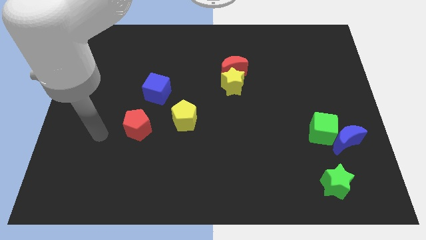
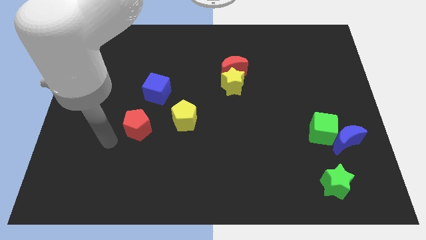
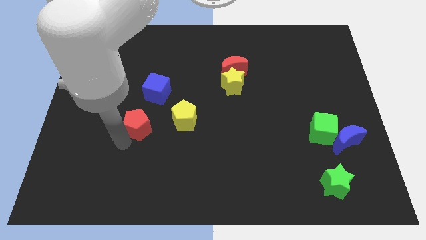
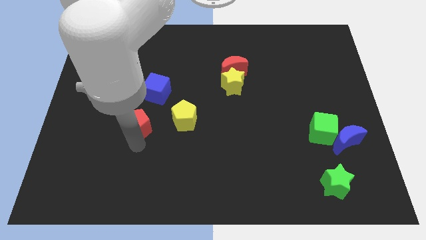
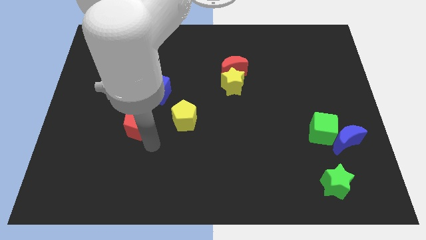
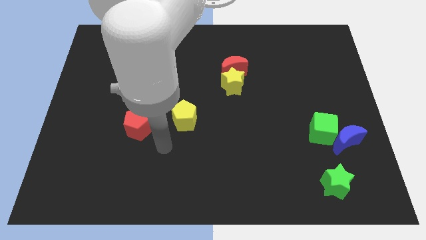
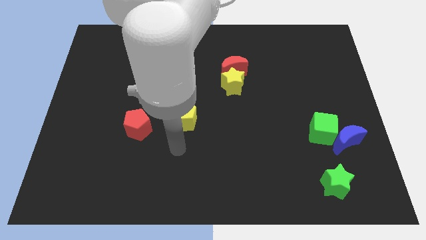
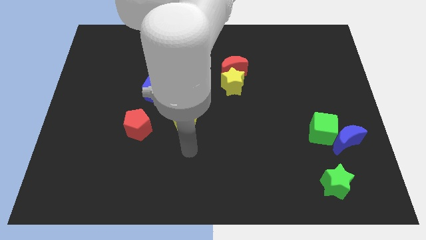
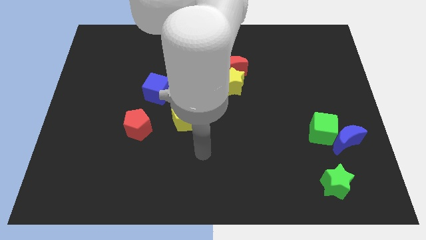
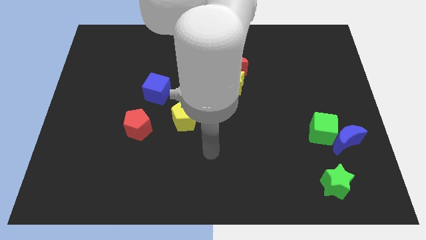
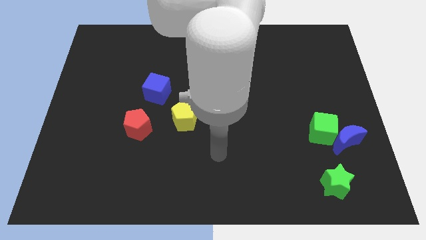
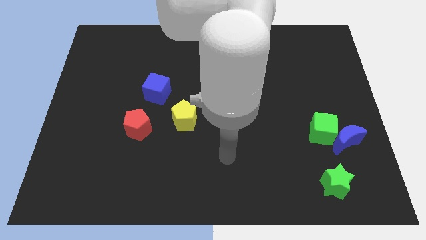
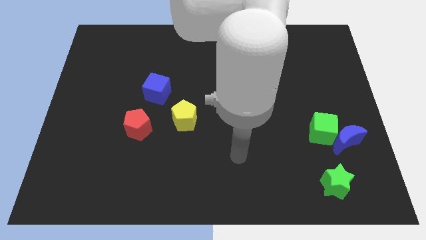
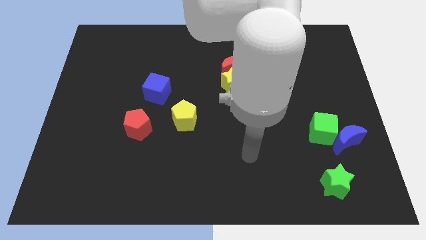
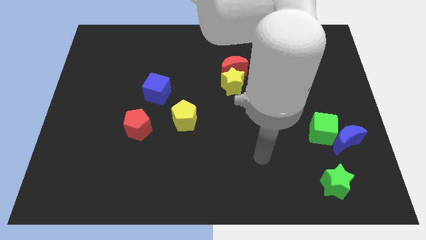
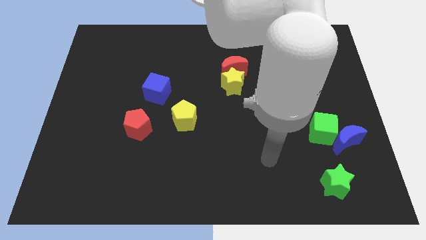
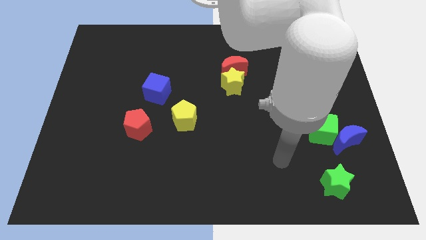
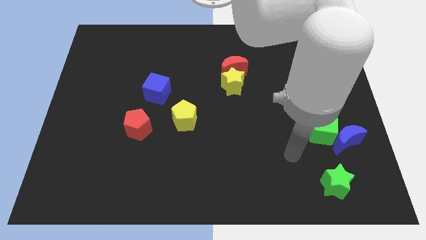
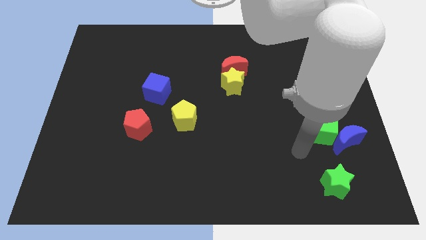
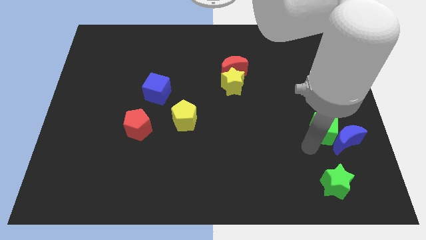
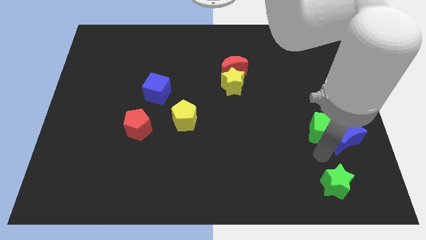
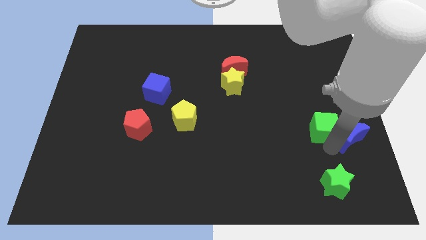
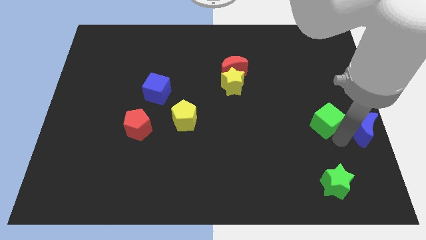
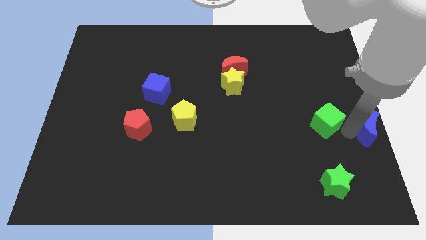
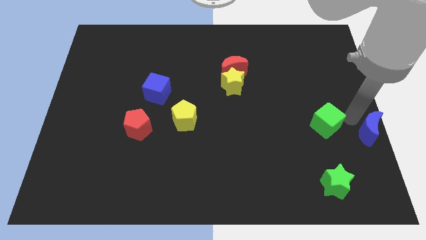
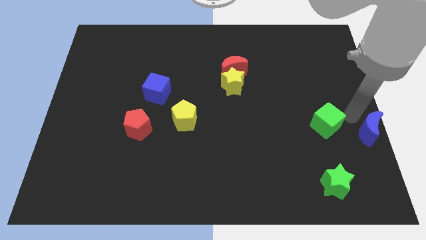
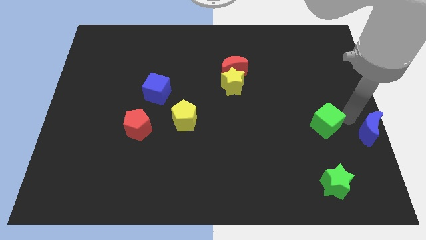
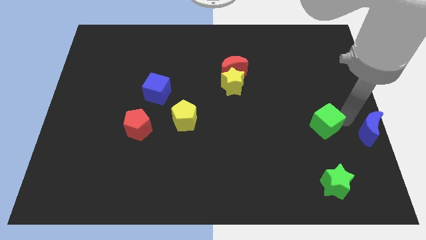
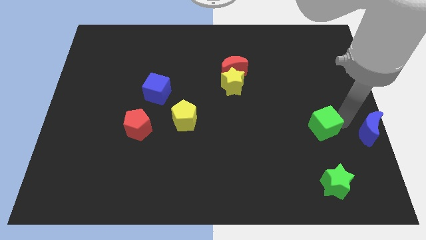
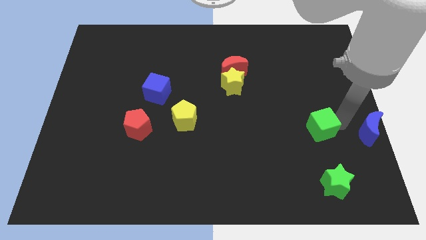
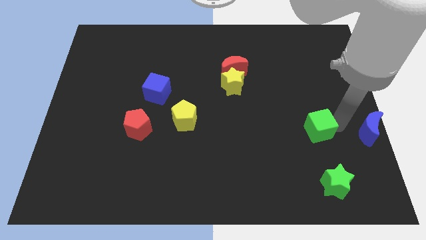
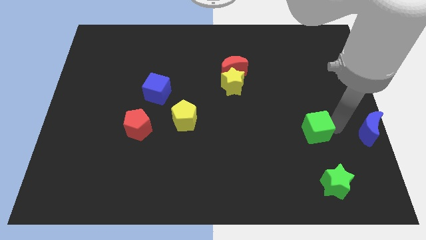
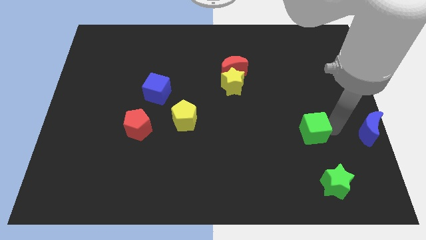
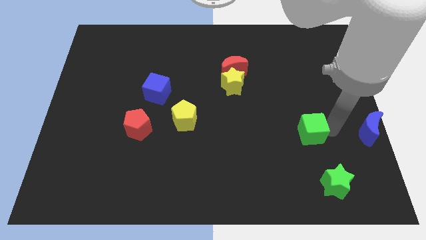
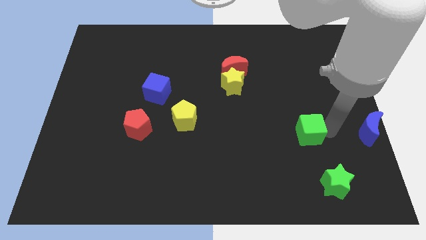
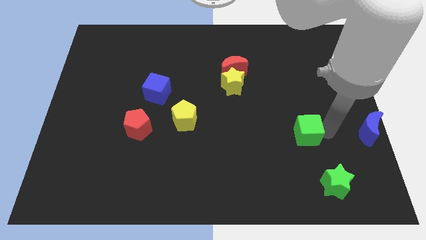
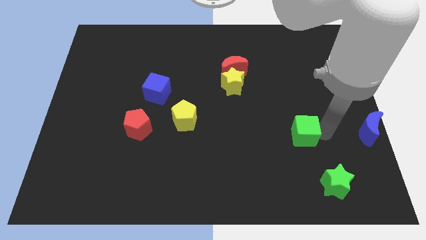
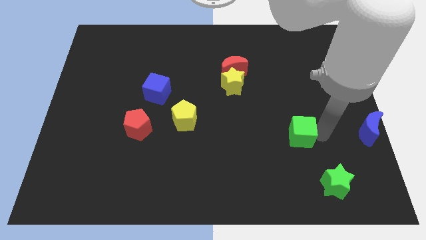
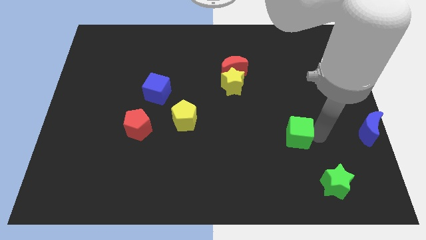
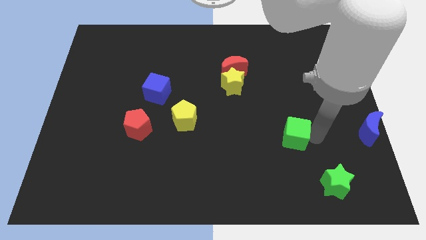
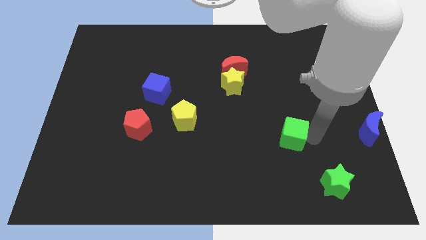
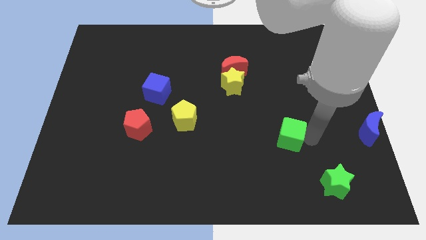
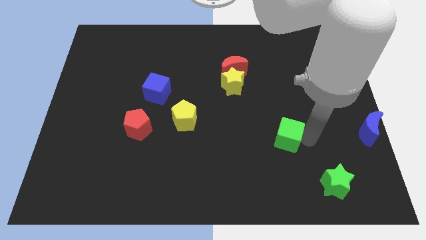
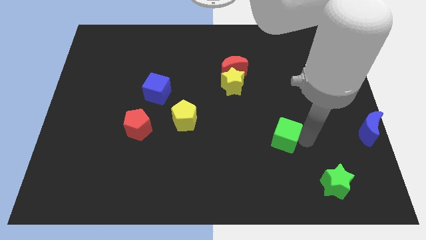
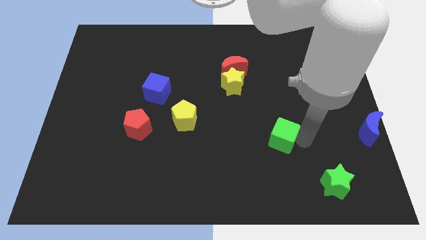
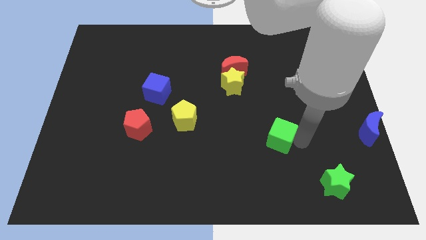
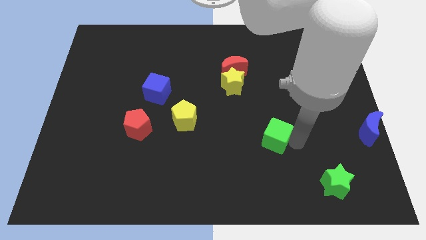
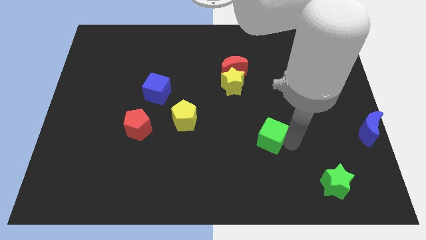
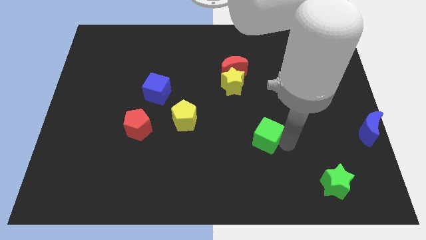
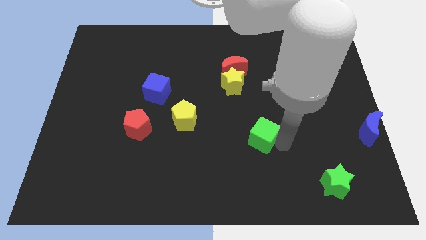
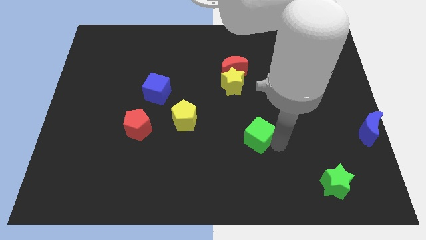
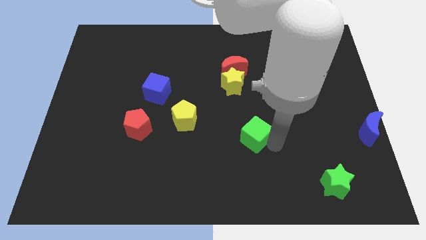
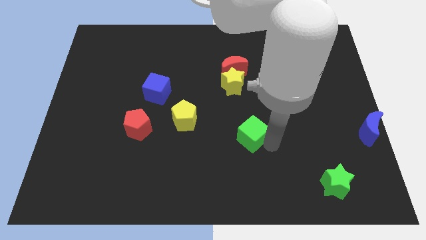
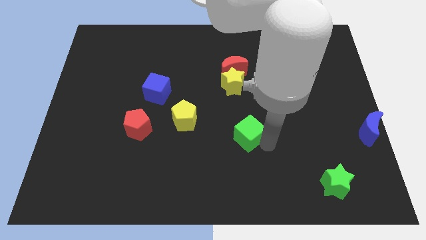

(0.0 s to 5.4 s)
put the green cube to the bottom of the yellow star

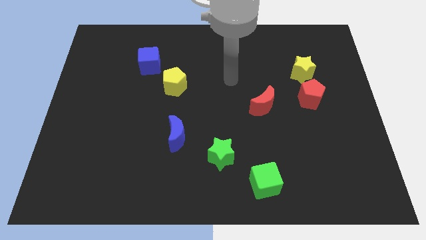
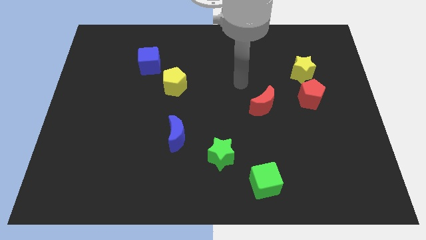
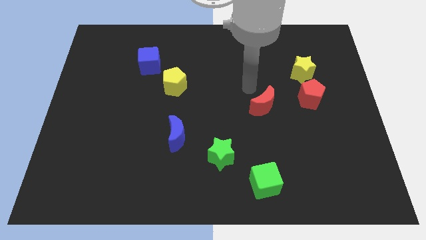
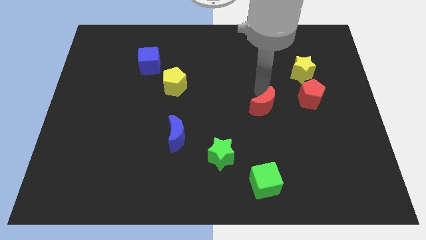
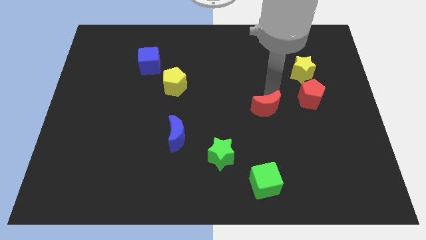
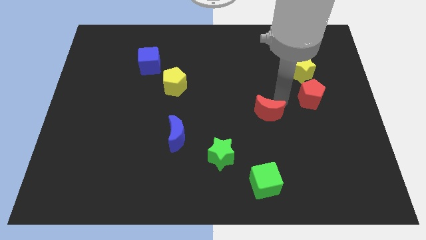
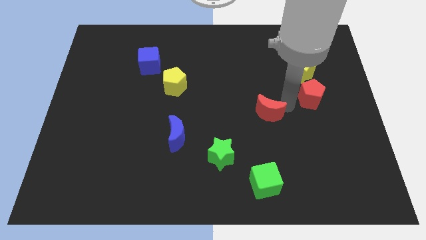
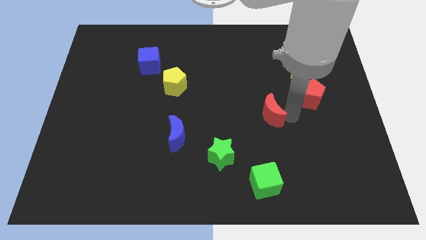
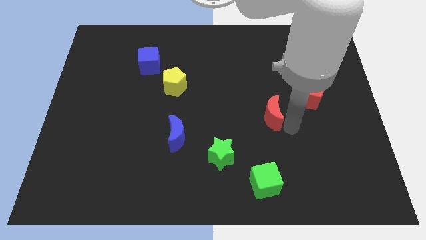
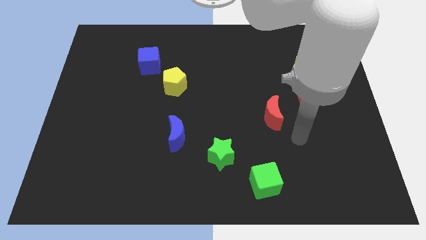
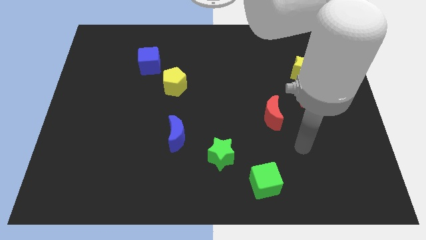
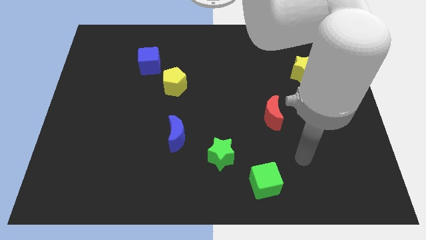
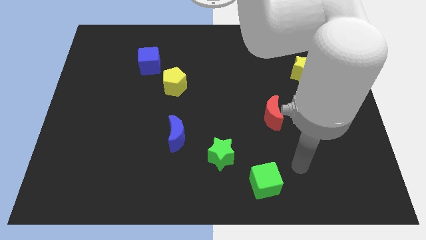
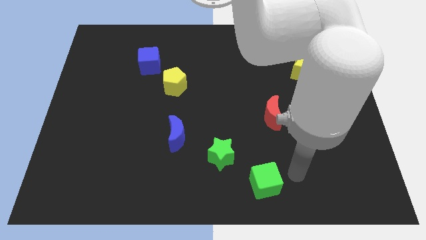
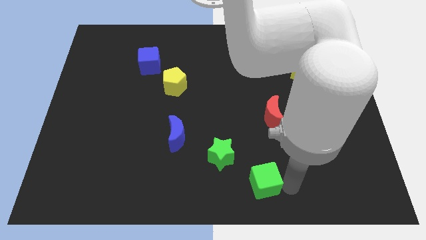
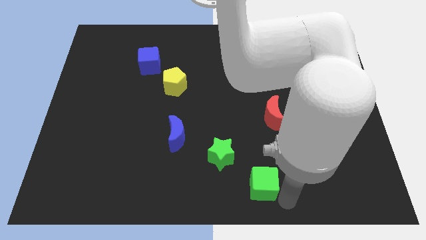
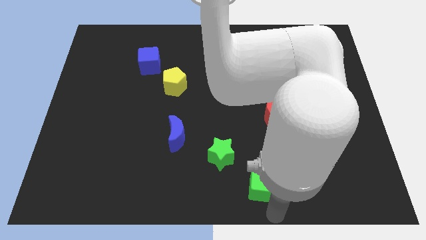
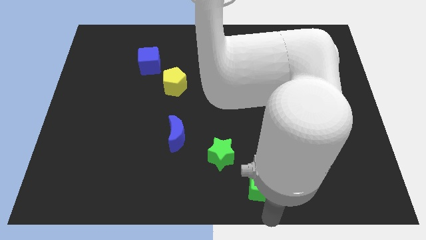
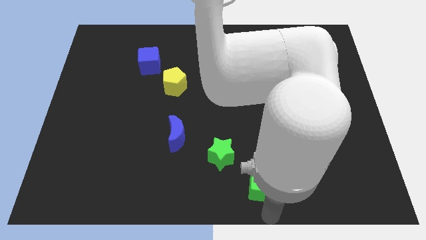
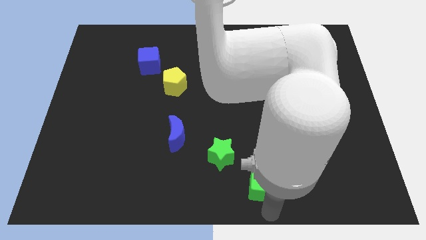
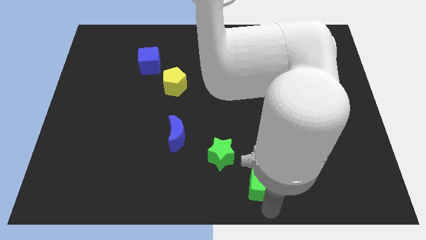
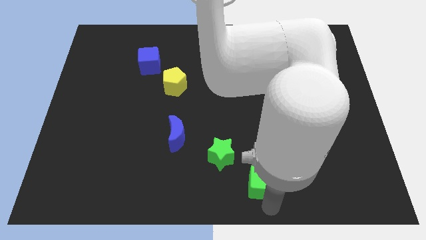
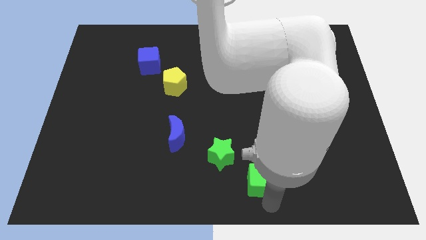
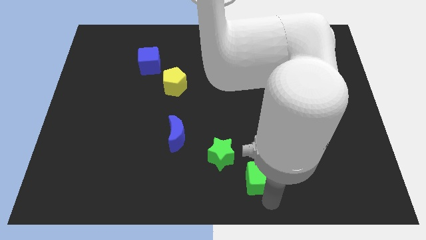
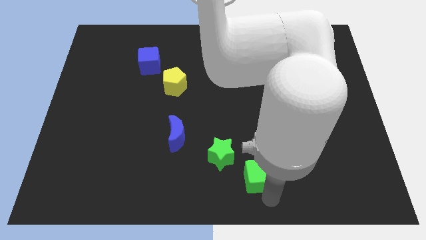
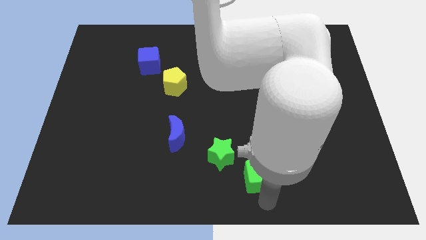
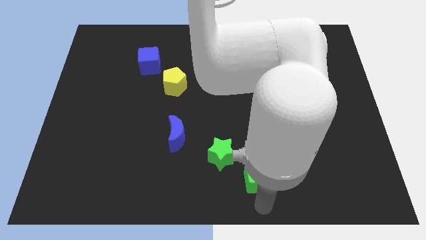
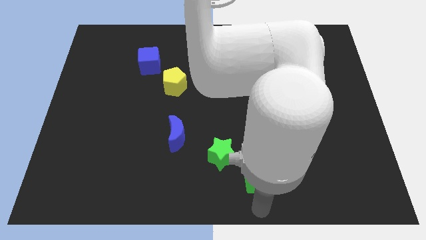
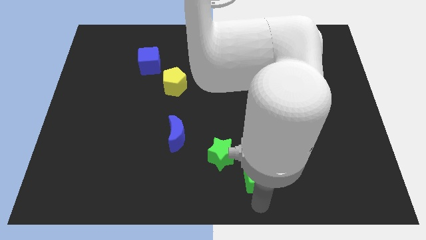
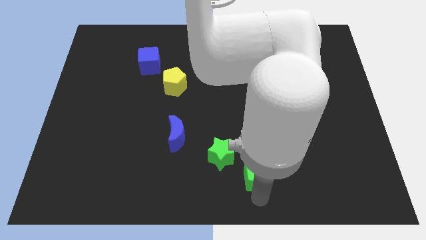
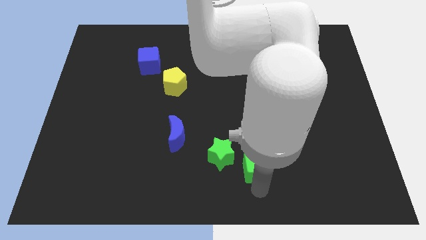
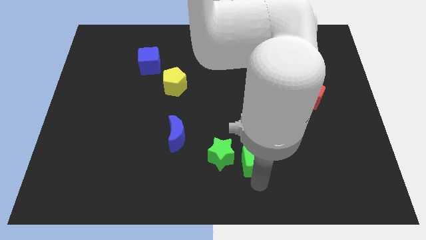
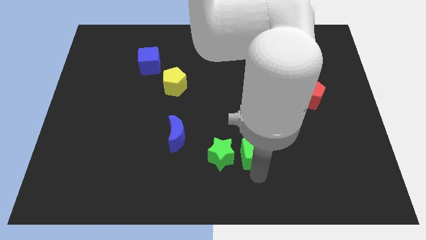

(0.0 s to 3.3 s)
put the green cube diagonally up and to the right of the green star
